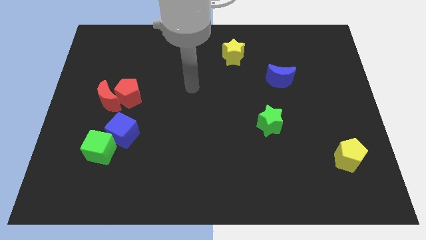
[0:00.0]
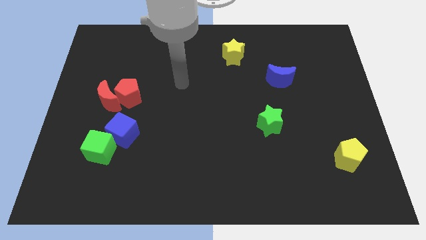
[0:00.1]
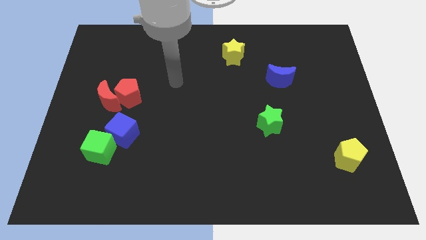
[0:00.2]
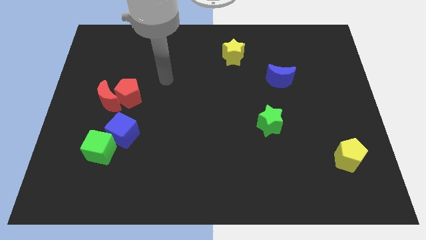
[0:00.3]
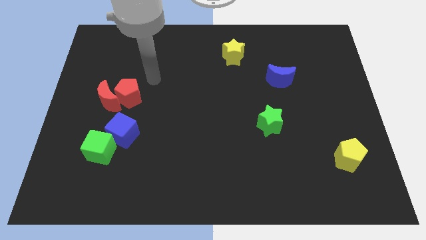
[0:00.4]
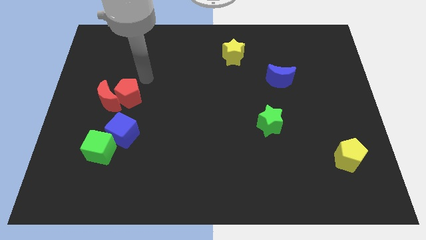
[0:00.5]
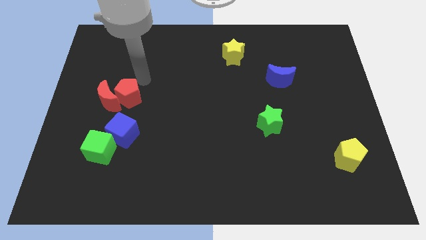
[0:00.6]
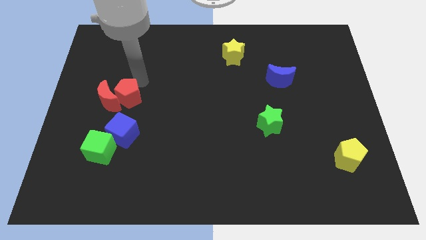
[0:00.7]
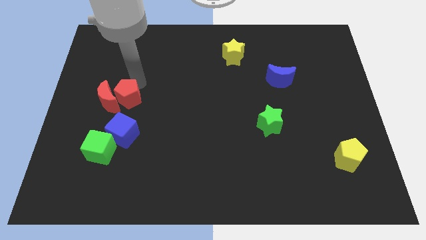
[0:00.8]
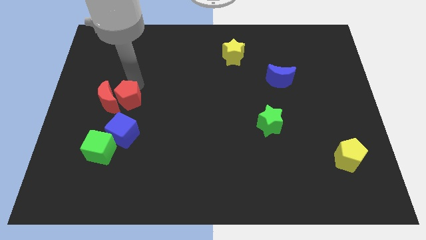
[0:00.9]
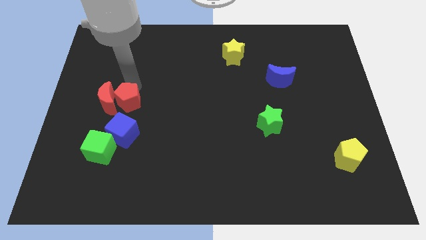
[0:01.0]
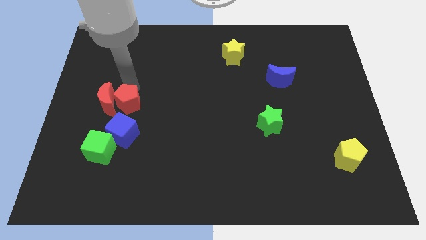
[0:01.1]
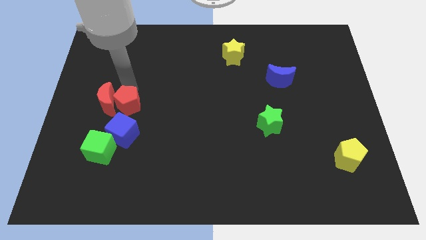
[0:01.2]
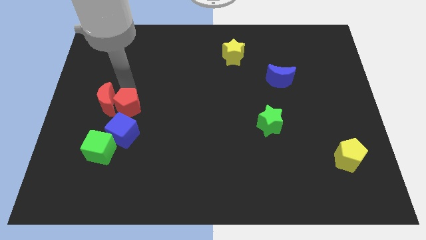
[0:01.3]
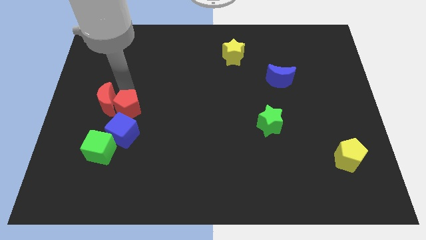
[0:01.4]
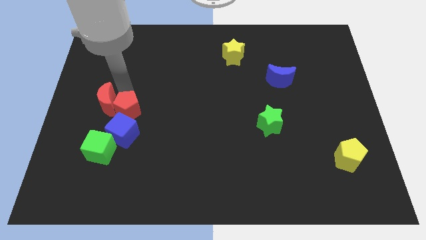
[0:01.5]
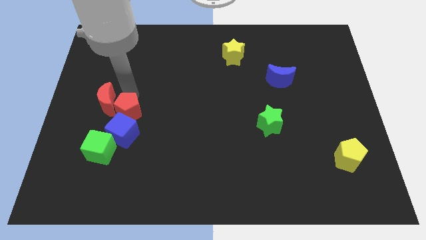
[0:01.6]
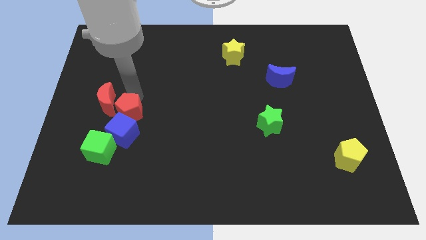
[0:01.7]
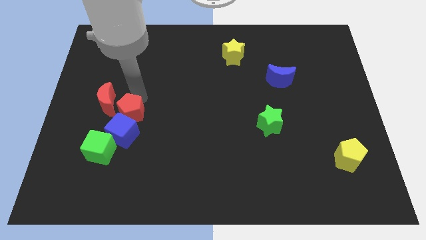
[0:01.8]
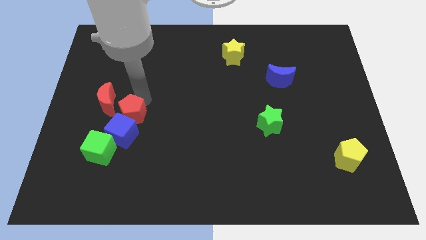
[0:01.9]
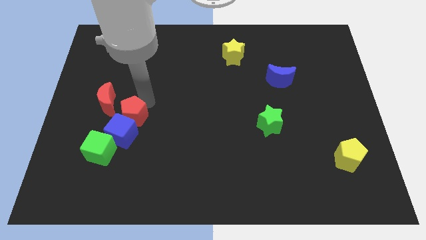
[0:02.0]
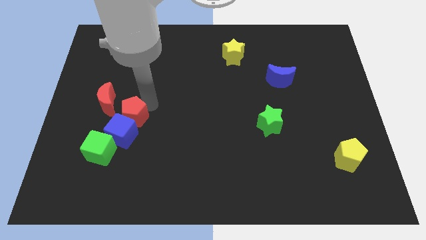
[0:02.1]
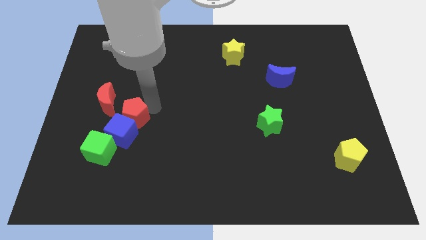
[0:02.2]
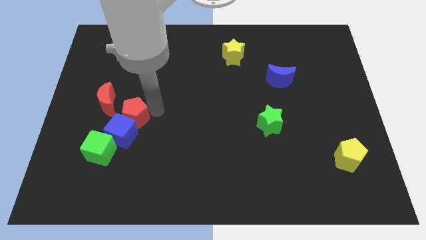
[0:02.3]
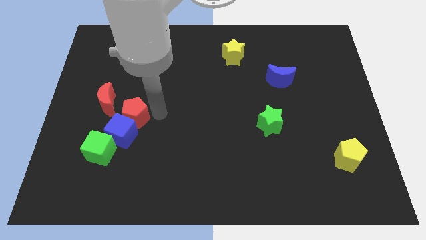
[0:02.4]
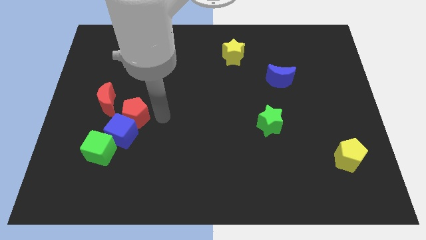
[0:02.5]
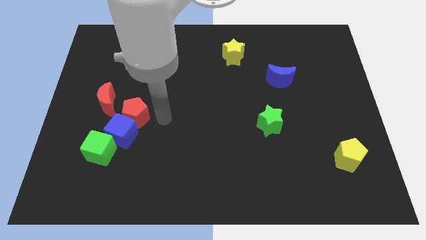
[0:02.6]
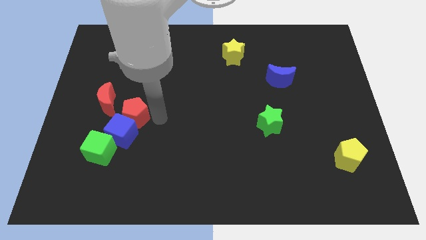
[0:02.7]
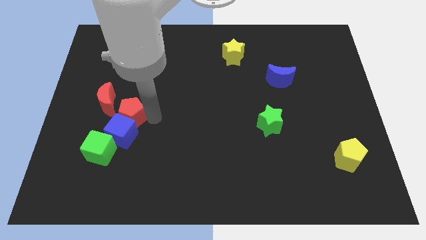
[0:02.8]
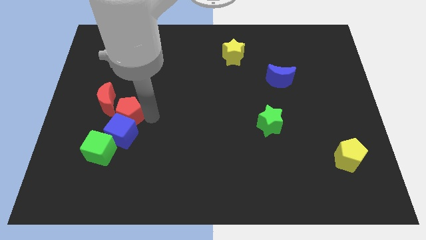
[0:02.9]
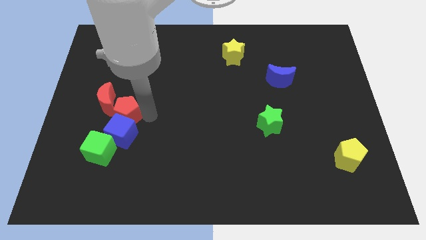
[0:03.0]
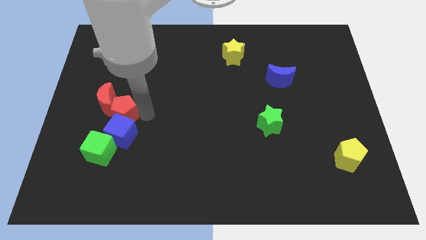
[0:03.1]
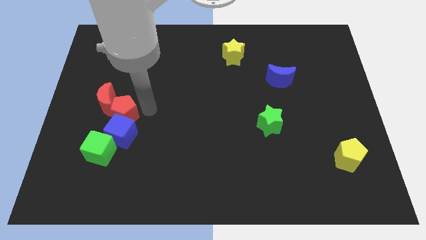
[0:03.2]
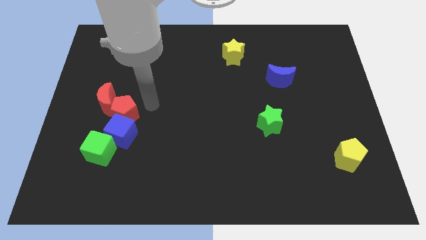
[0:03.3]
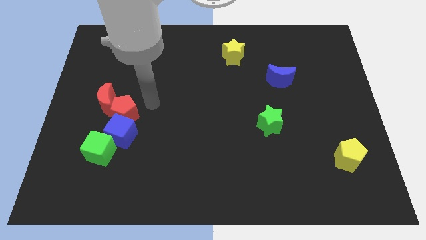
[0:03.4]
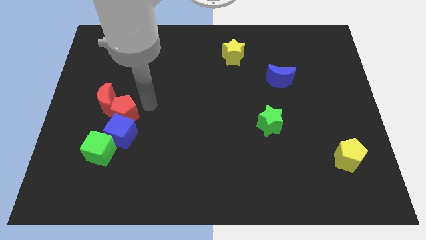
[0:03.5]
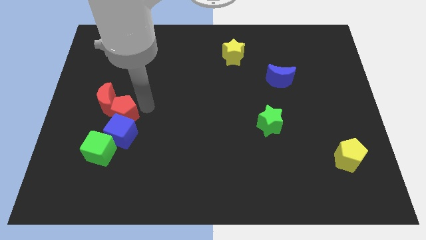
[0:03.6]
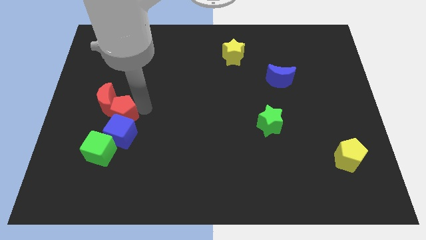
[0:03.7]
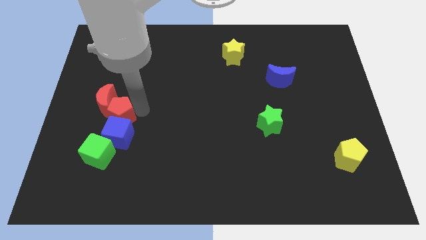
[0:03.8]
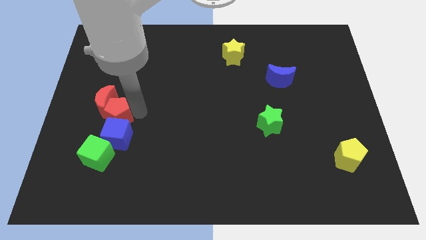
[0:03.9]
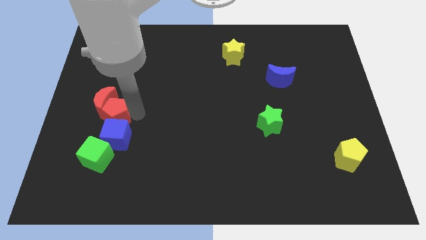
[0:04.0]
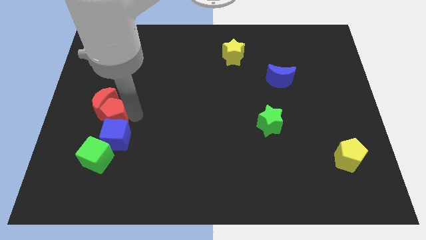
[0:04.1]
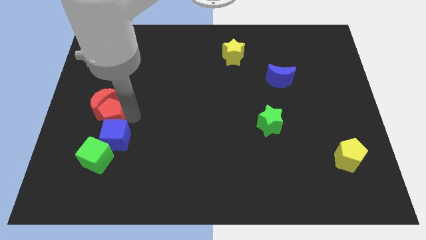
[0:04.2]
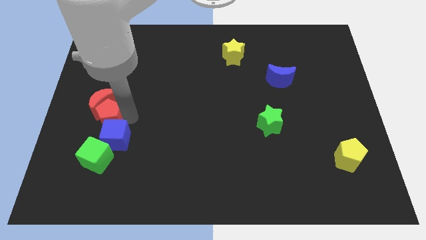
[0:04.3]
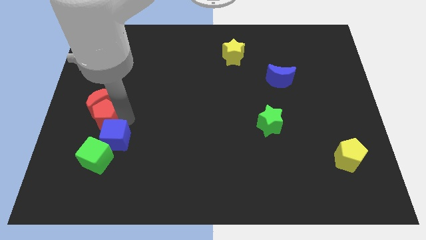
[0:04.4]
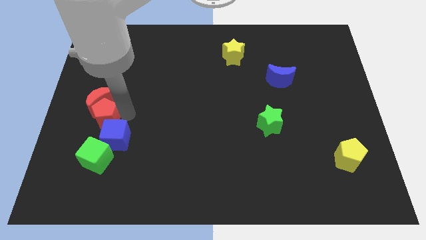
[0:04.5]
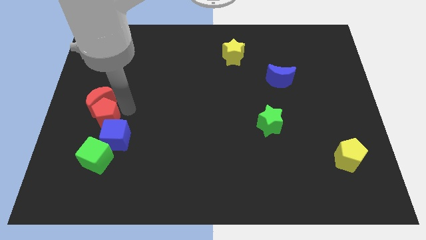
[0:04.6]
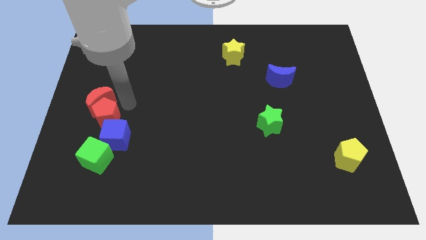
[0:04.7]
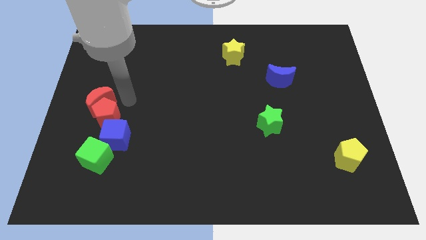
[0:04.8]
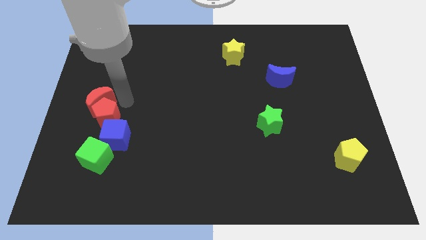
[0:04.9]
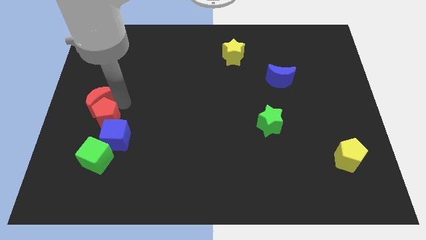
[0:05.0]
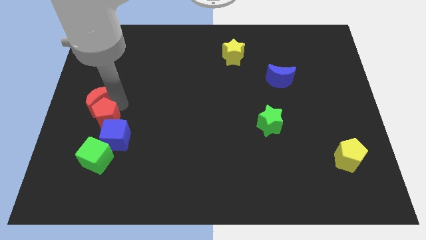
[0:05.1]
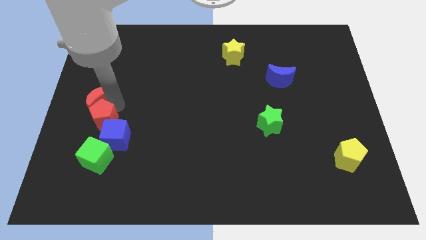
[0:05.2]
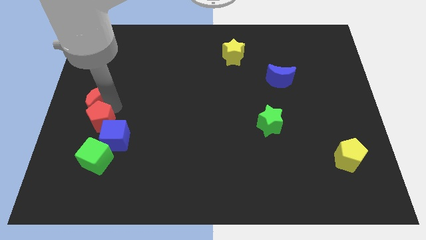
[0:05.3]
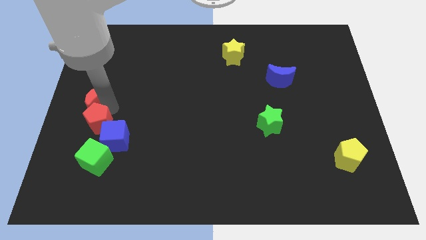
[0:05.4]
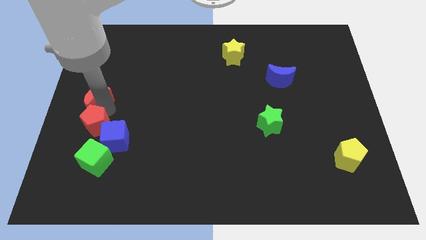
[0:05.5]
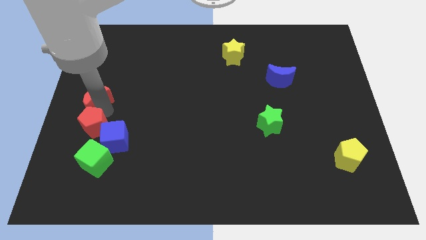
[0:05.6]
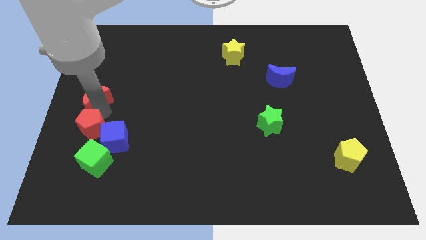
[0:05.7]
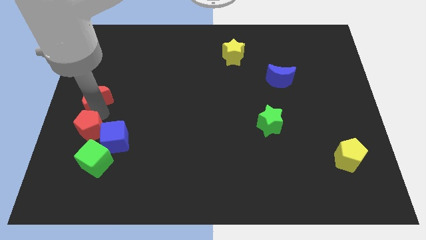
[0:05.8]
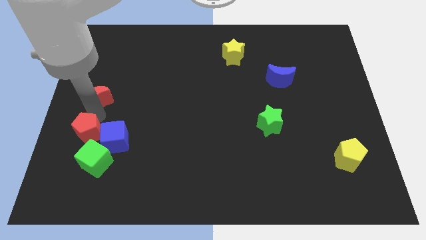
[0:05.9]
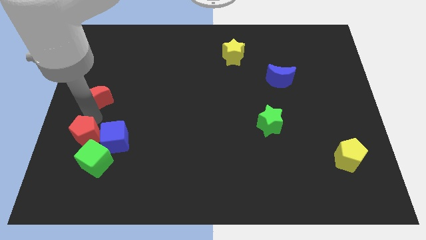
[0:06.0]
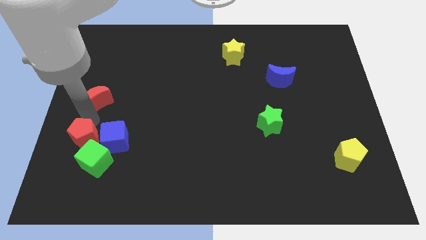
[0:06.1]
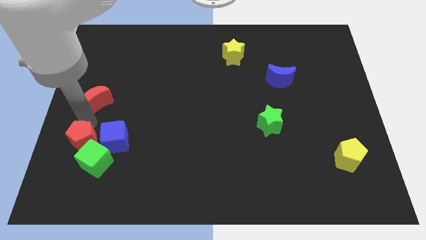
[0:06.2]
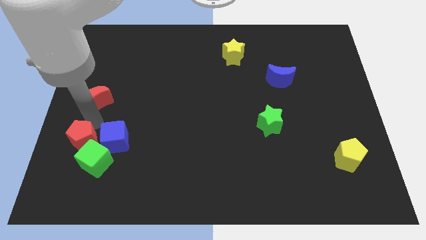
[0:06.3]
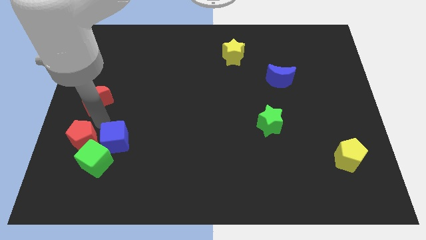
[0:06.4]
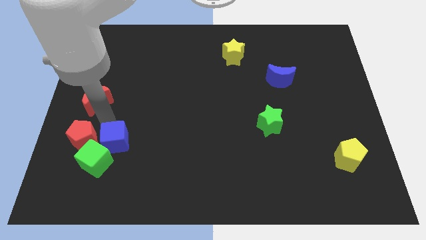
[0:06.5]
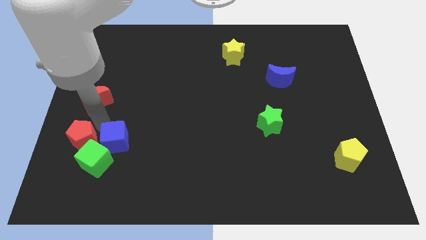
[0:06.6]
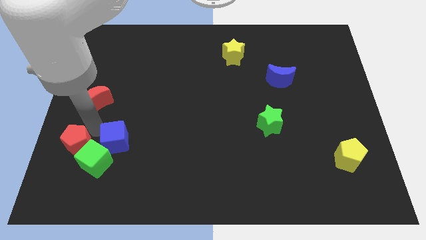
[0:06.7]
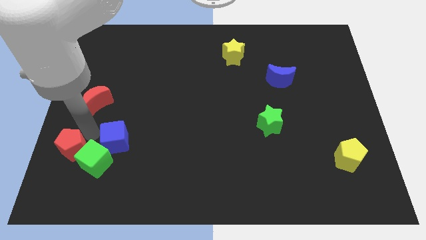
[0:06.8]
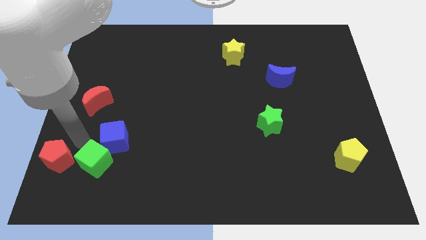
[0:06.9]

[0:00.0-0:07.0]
push the red pentagon to the bottom left
